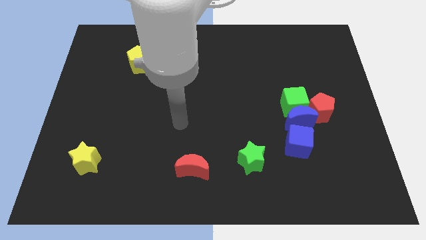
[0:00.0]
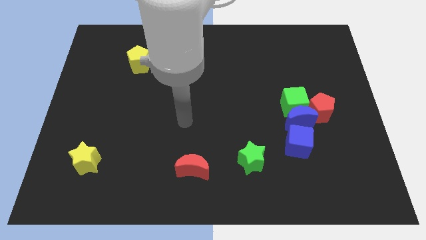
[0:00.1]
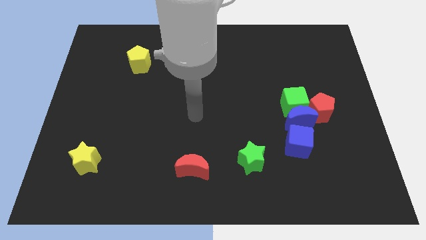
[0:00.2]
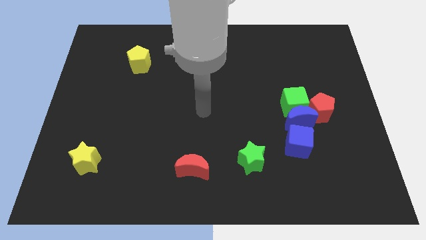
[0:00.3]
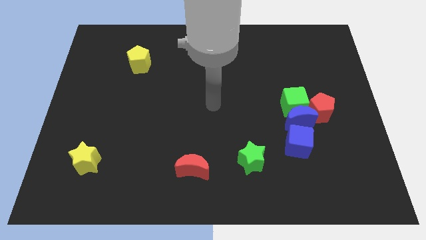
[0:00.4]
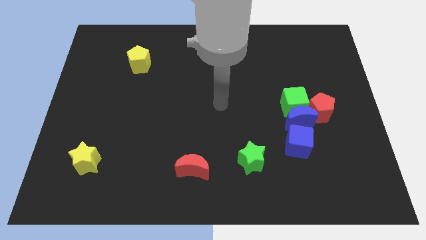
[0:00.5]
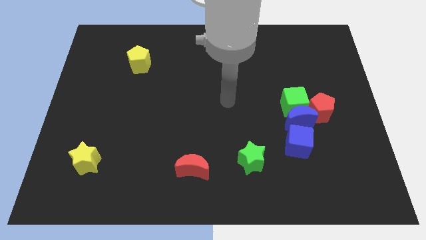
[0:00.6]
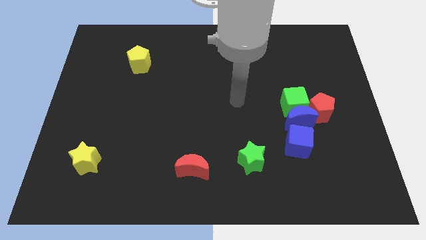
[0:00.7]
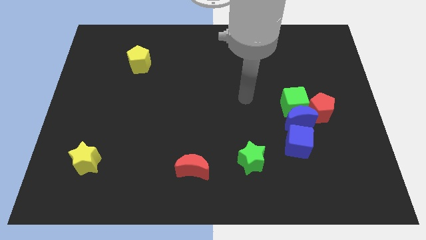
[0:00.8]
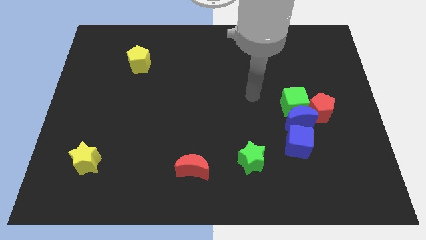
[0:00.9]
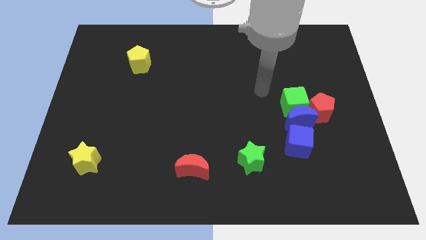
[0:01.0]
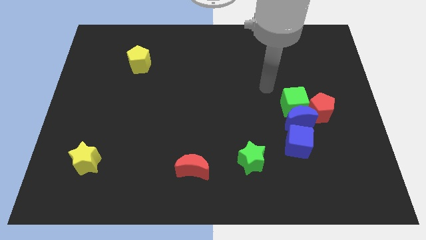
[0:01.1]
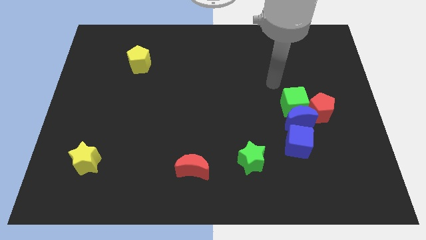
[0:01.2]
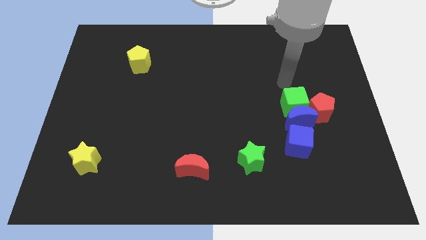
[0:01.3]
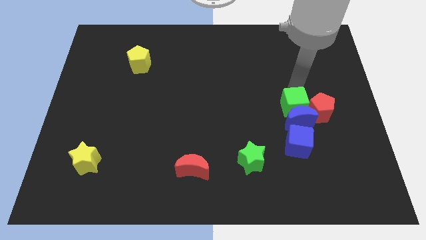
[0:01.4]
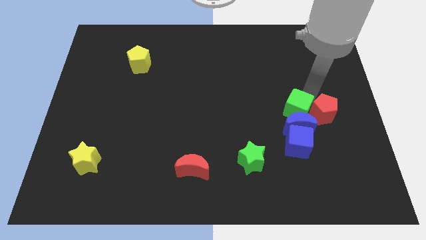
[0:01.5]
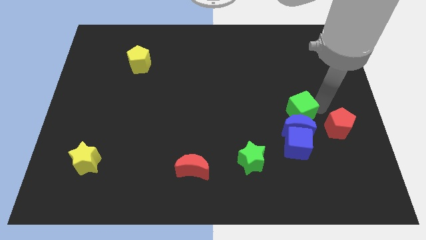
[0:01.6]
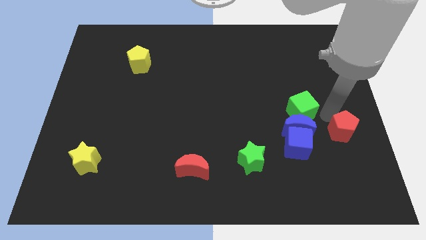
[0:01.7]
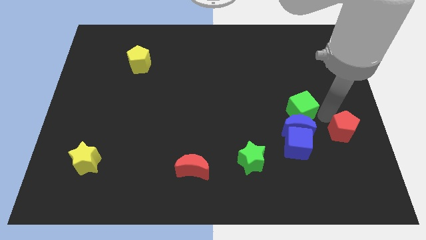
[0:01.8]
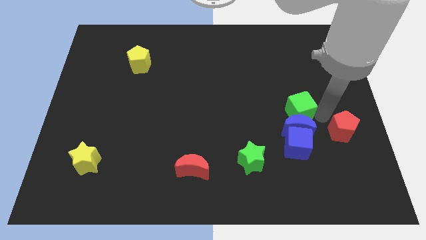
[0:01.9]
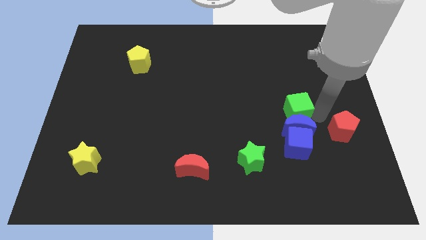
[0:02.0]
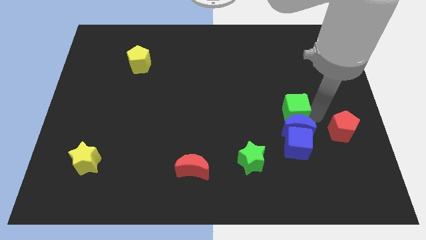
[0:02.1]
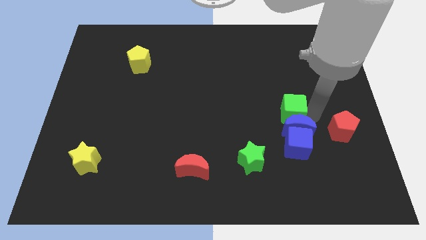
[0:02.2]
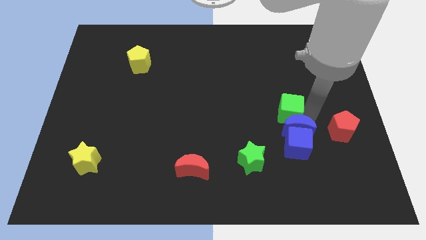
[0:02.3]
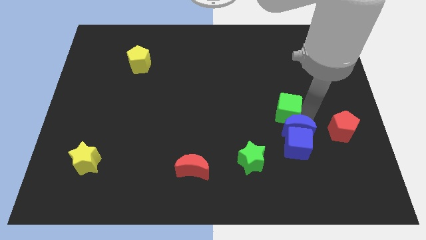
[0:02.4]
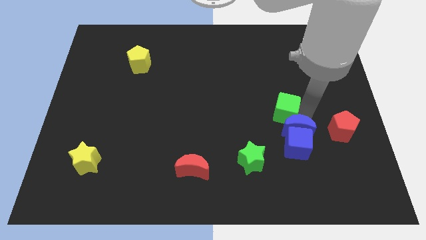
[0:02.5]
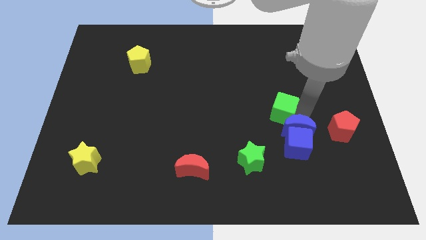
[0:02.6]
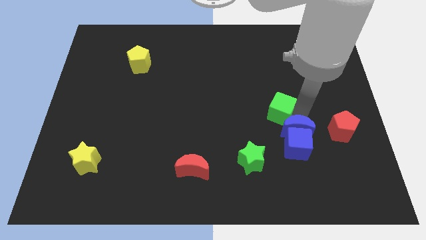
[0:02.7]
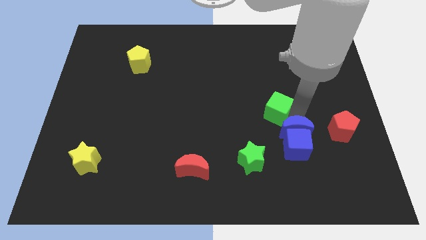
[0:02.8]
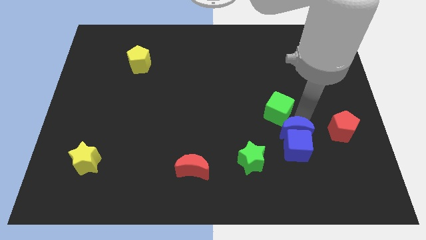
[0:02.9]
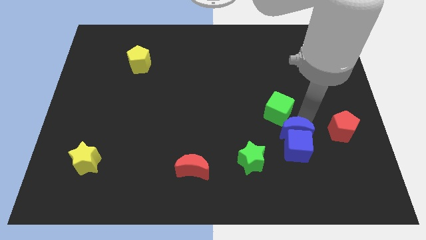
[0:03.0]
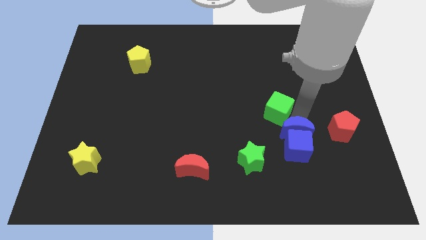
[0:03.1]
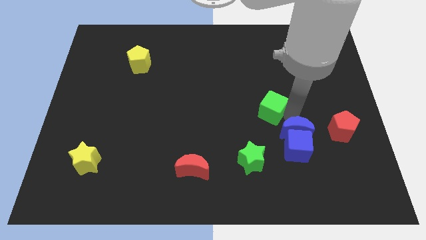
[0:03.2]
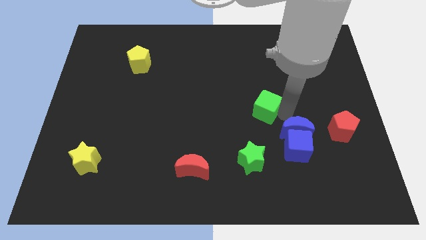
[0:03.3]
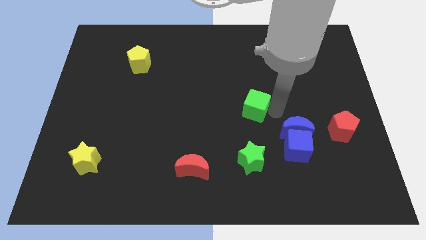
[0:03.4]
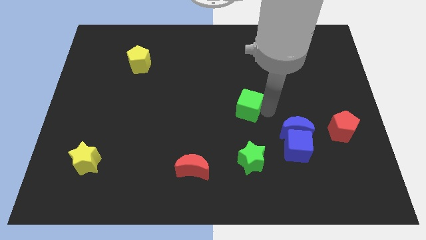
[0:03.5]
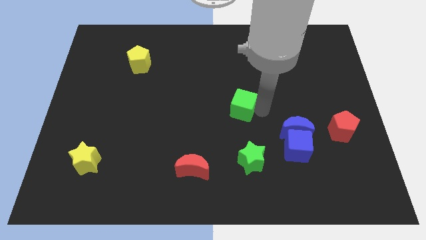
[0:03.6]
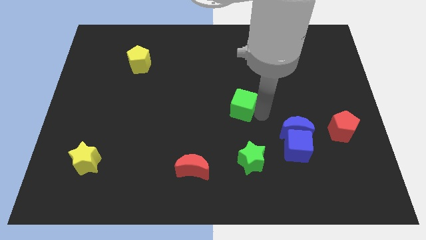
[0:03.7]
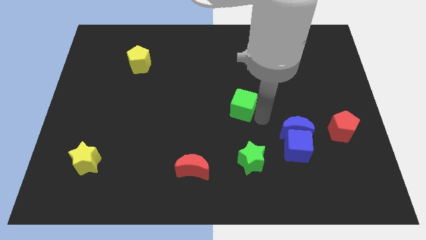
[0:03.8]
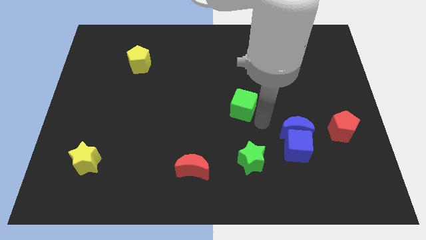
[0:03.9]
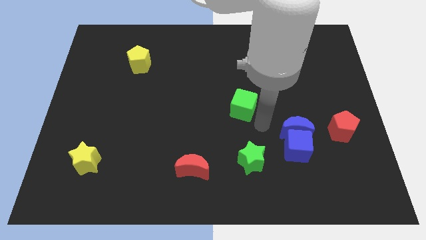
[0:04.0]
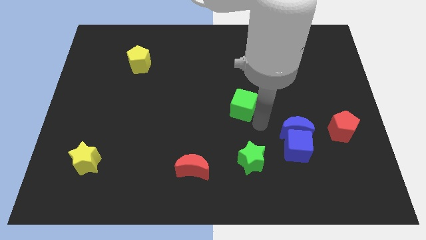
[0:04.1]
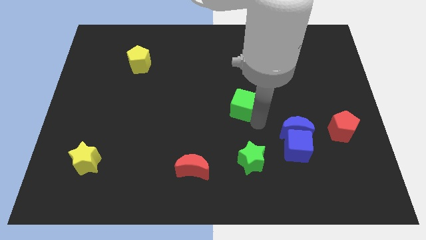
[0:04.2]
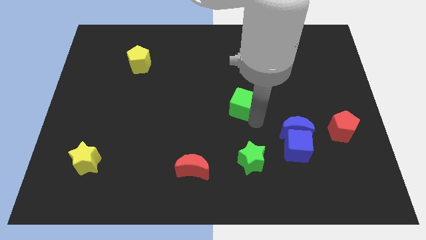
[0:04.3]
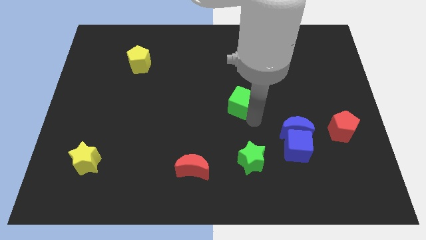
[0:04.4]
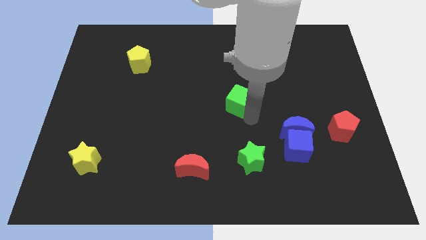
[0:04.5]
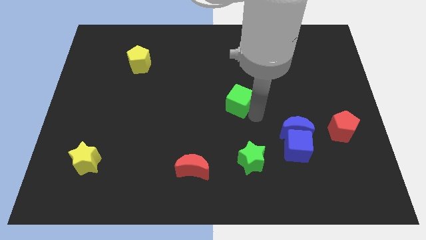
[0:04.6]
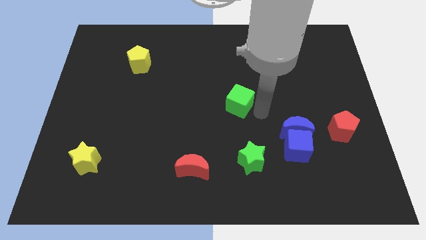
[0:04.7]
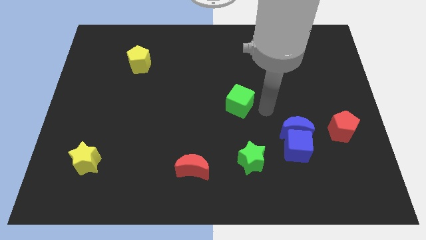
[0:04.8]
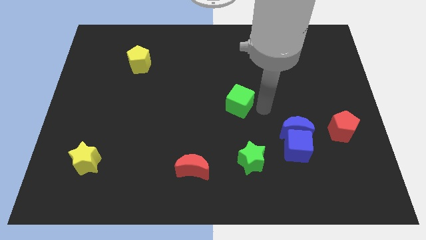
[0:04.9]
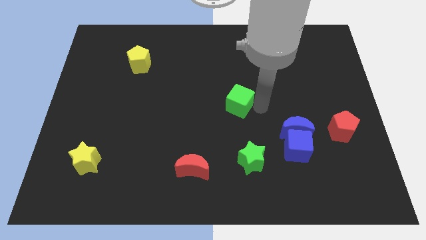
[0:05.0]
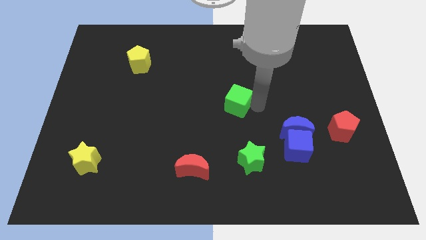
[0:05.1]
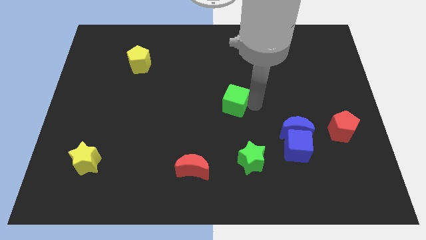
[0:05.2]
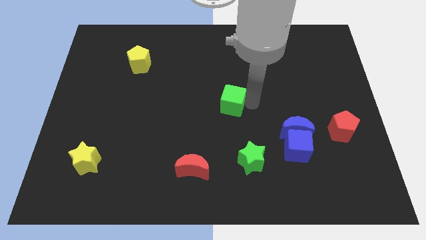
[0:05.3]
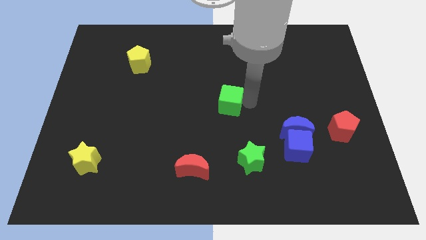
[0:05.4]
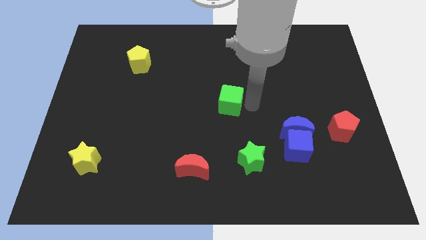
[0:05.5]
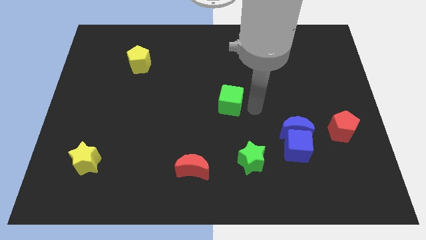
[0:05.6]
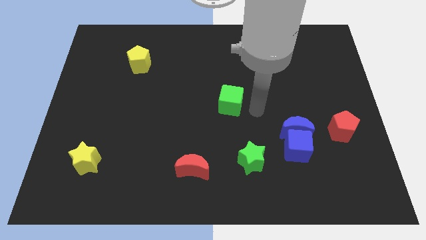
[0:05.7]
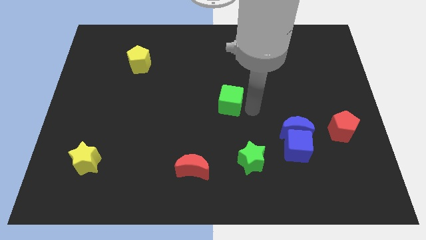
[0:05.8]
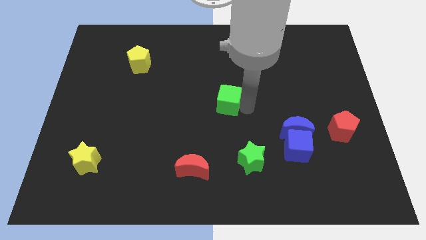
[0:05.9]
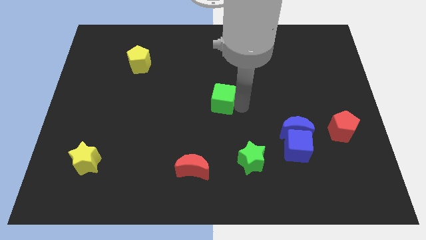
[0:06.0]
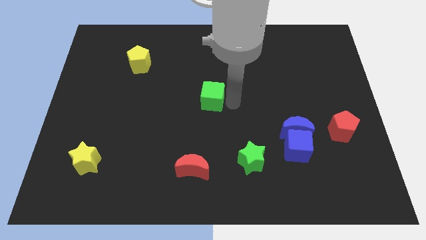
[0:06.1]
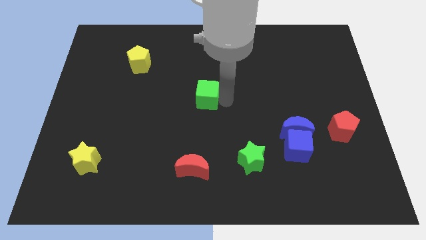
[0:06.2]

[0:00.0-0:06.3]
move the green cube to the left

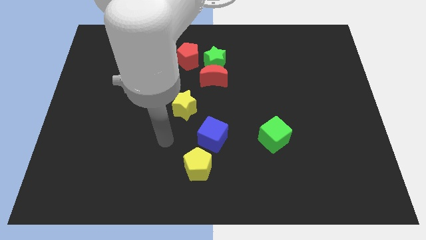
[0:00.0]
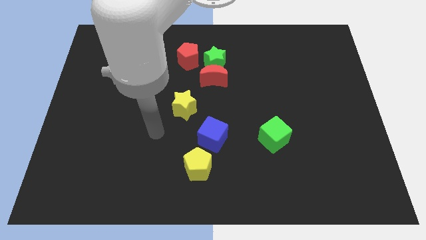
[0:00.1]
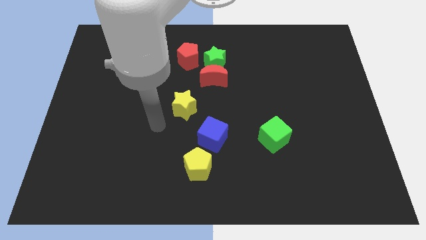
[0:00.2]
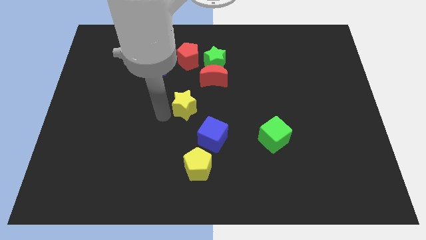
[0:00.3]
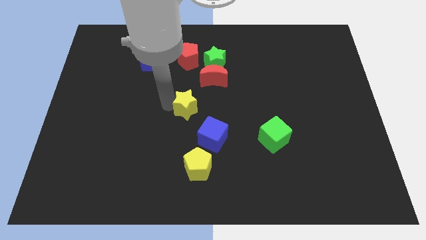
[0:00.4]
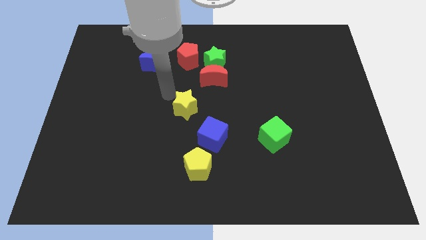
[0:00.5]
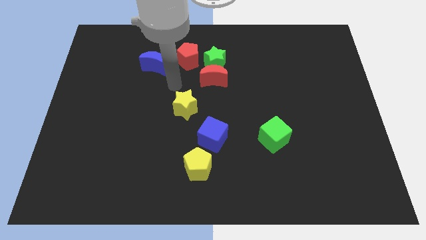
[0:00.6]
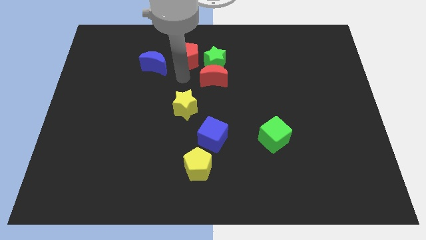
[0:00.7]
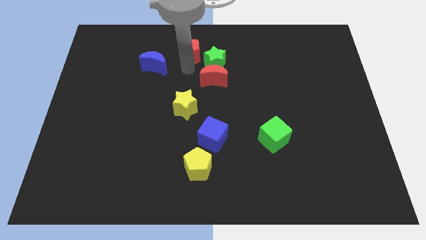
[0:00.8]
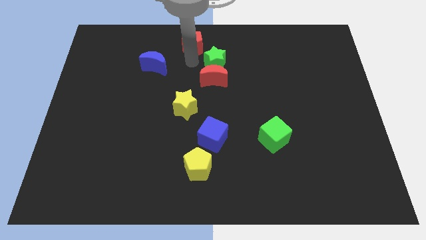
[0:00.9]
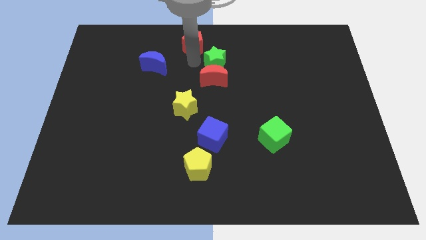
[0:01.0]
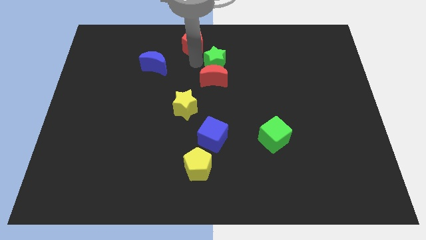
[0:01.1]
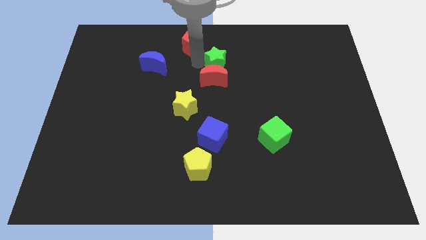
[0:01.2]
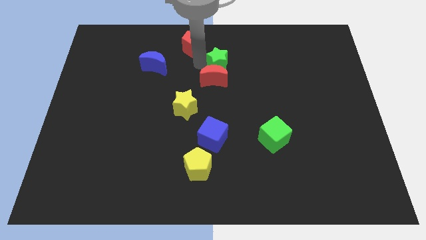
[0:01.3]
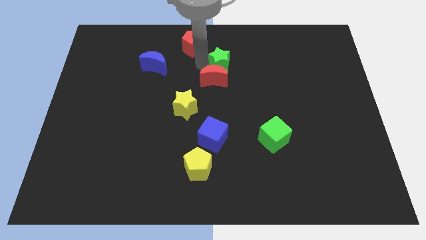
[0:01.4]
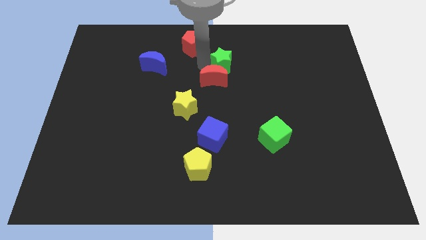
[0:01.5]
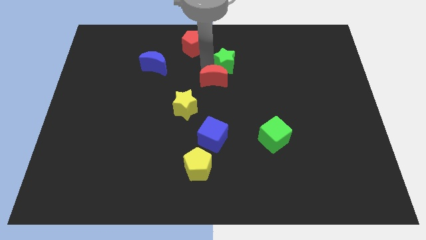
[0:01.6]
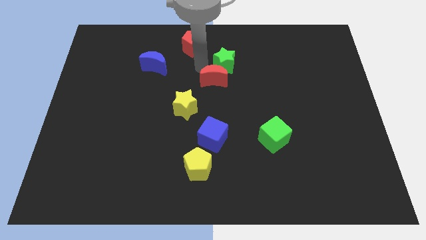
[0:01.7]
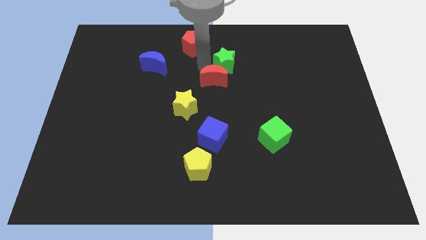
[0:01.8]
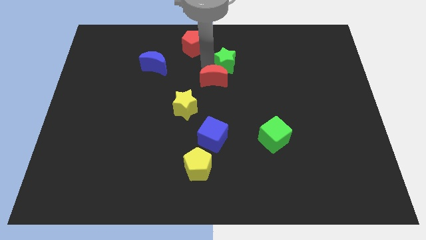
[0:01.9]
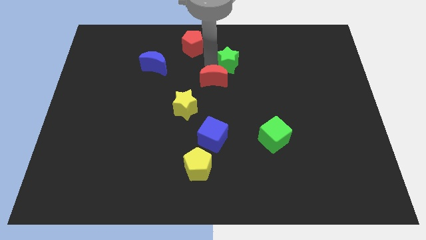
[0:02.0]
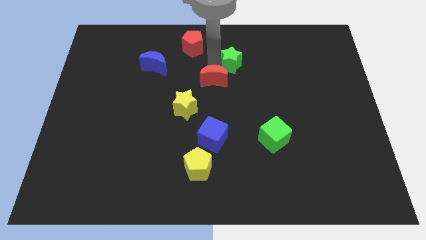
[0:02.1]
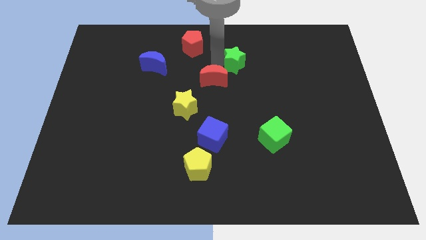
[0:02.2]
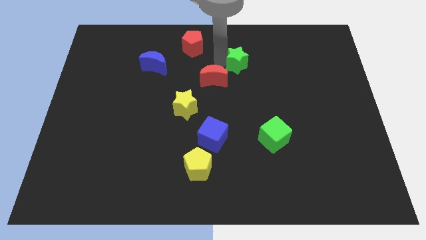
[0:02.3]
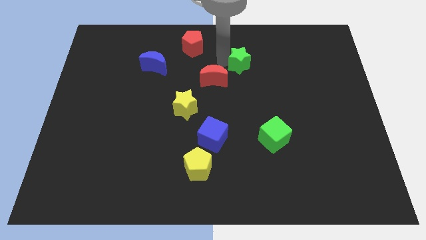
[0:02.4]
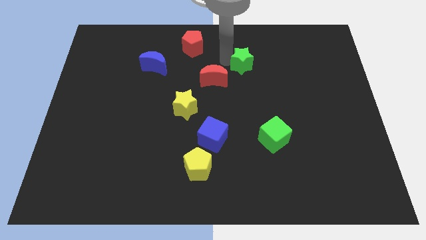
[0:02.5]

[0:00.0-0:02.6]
slightly push the green star to the right
